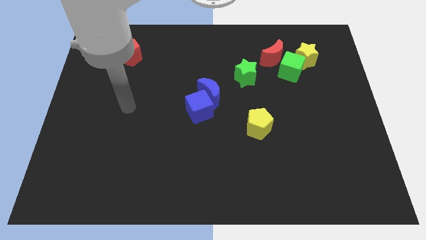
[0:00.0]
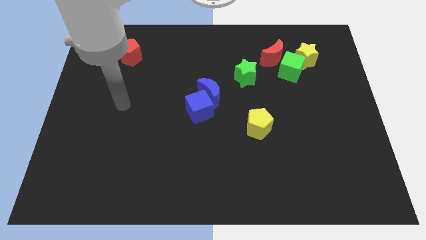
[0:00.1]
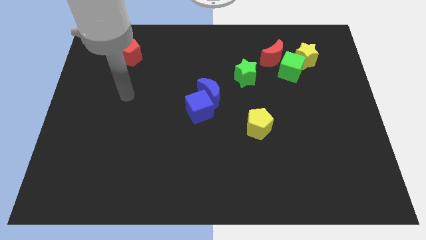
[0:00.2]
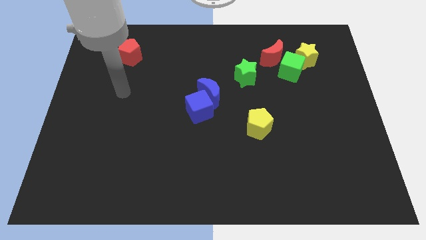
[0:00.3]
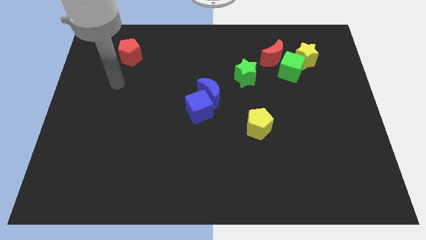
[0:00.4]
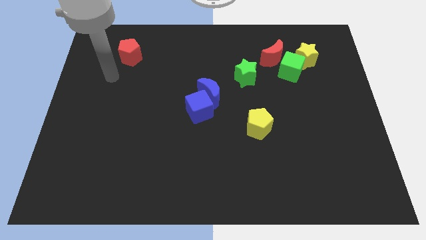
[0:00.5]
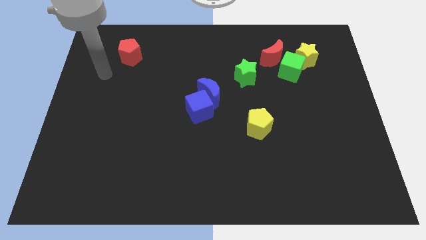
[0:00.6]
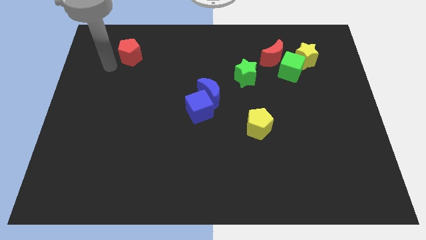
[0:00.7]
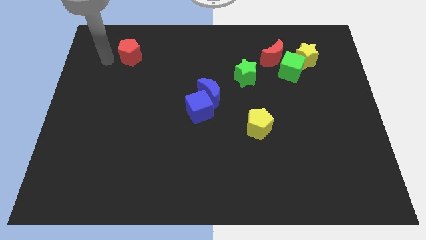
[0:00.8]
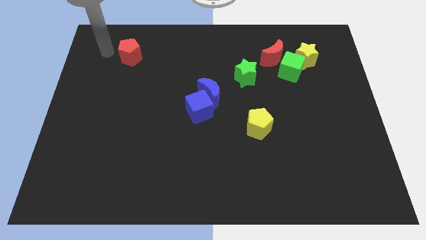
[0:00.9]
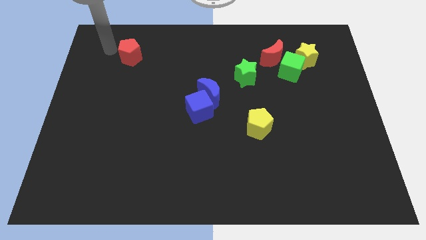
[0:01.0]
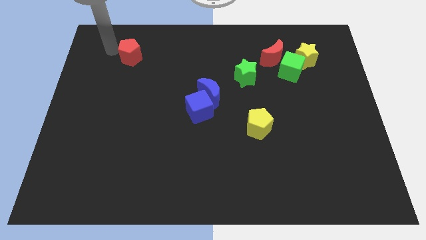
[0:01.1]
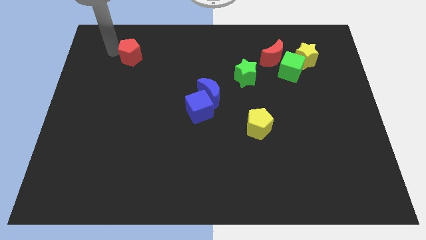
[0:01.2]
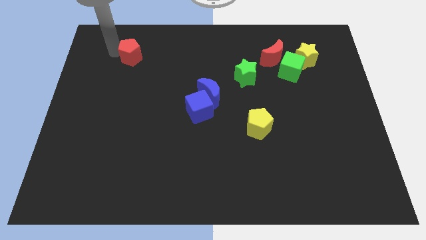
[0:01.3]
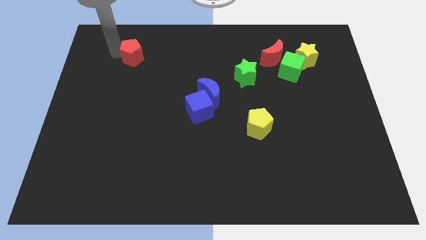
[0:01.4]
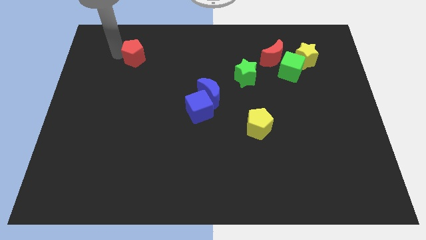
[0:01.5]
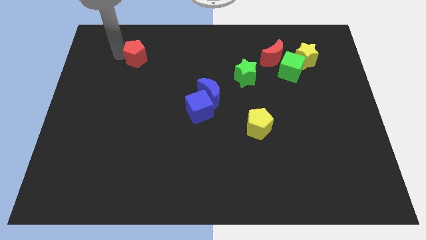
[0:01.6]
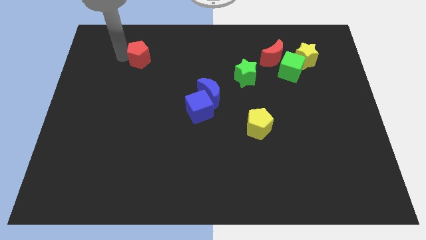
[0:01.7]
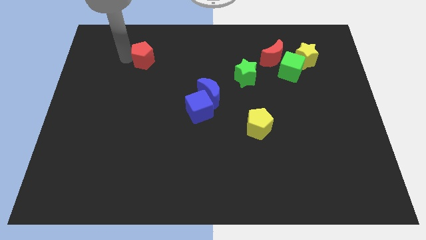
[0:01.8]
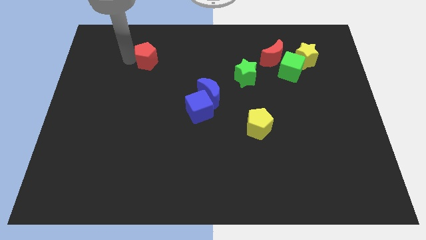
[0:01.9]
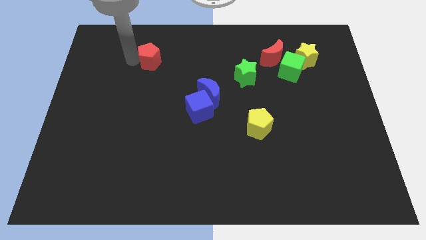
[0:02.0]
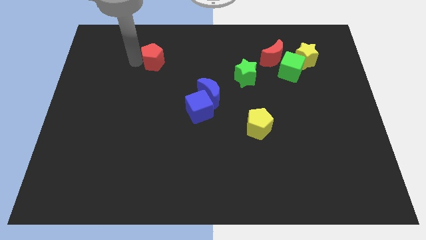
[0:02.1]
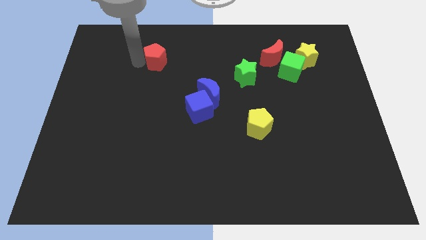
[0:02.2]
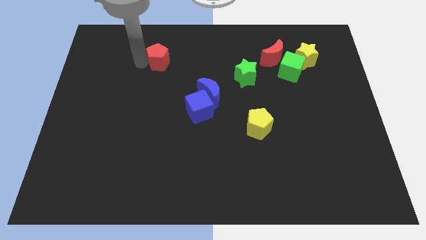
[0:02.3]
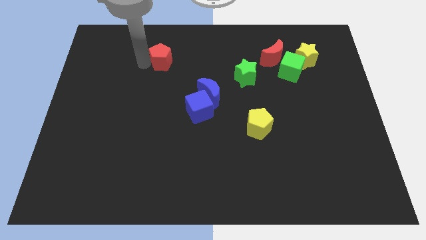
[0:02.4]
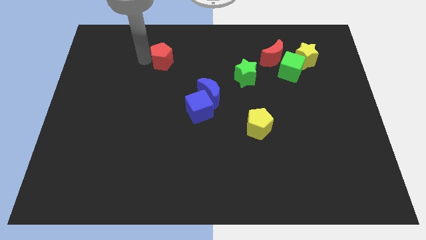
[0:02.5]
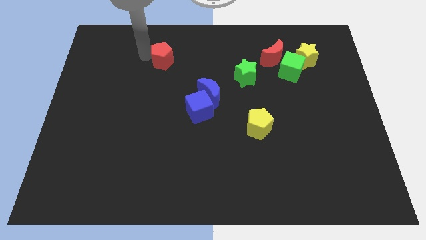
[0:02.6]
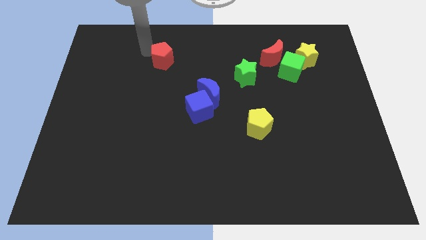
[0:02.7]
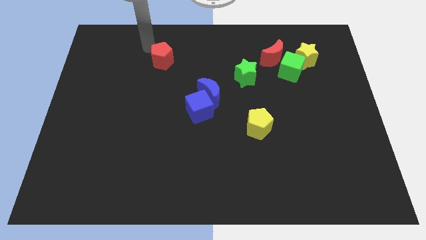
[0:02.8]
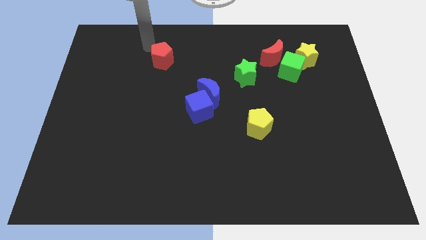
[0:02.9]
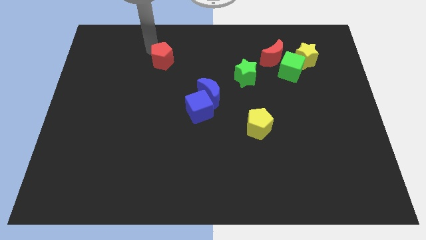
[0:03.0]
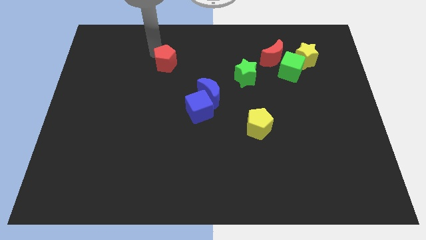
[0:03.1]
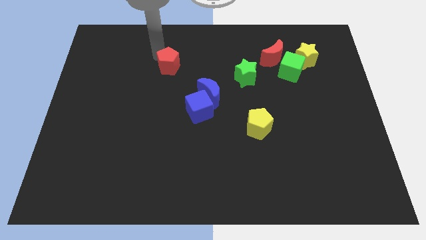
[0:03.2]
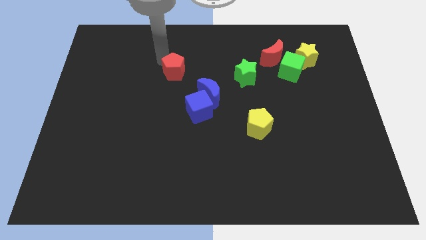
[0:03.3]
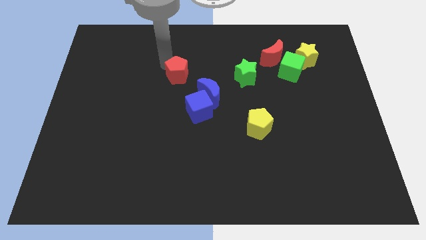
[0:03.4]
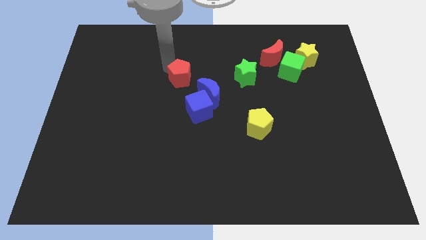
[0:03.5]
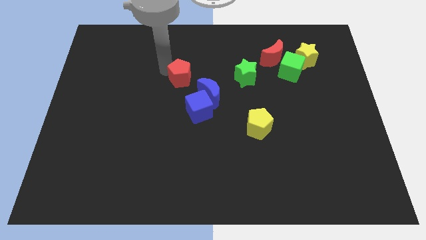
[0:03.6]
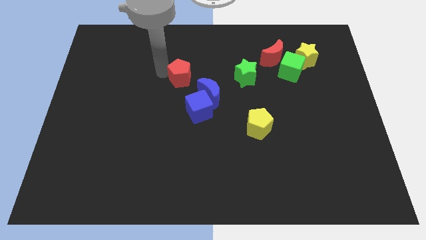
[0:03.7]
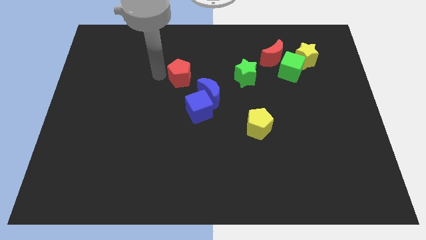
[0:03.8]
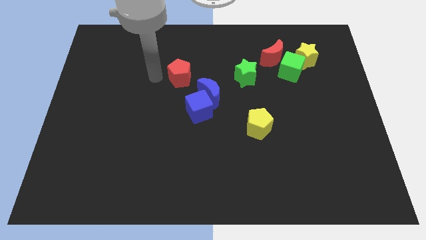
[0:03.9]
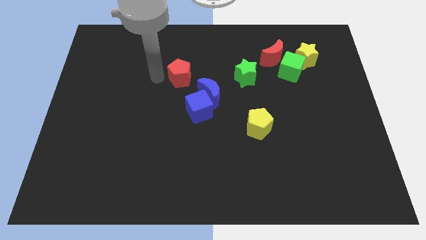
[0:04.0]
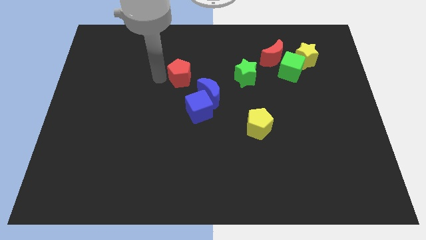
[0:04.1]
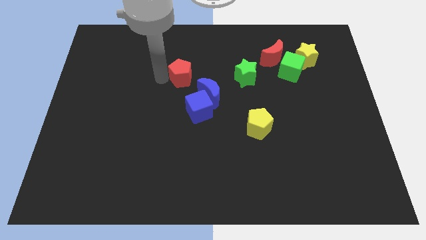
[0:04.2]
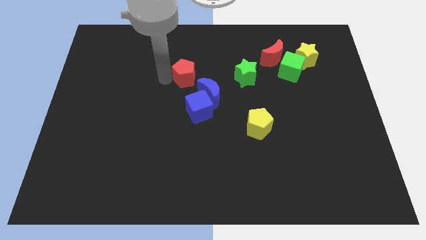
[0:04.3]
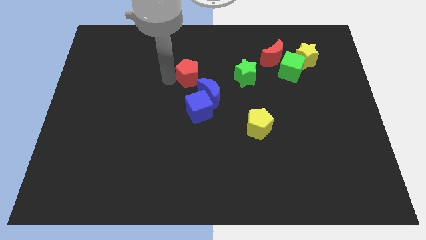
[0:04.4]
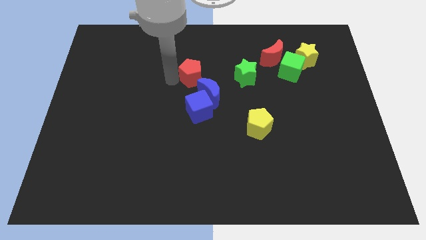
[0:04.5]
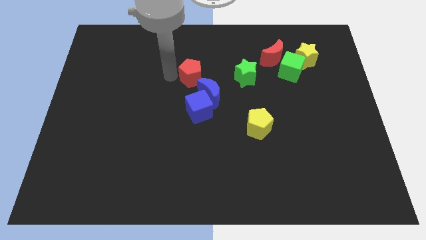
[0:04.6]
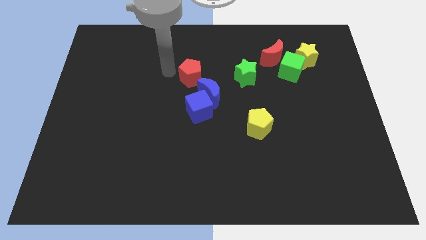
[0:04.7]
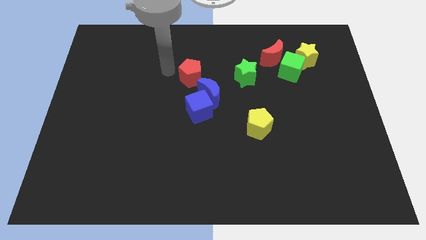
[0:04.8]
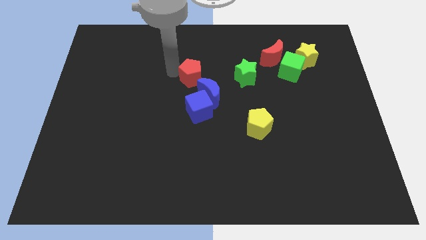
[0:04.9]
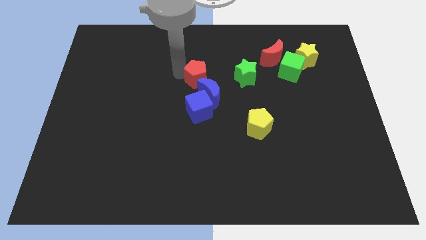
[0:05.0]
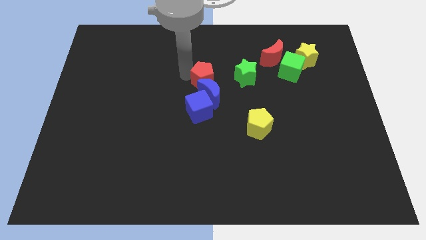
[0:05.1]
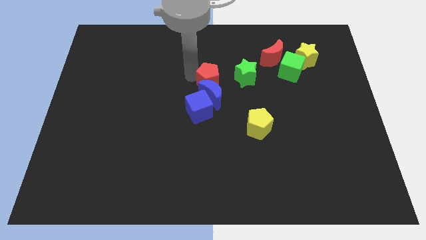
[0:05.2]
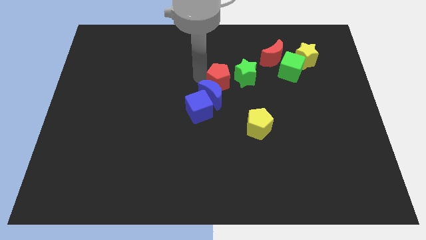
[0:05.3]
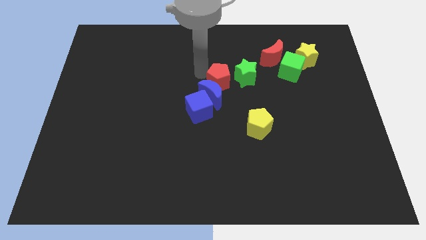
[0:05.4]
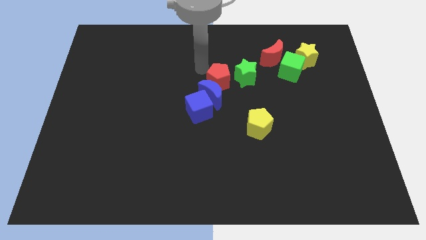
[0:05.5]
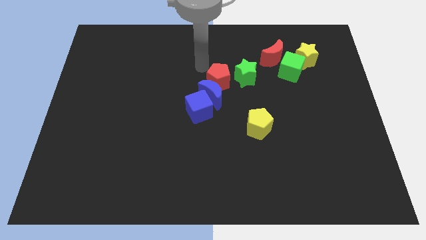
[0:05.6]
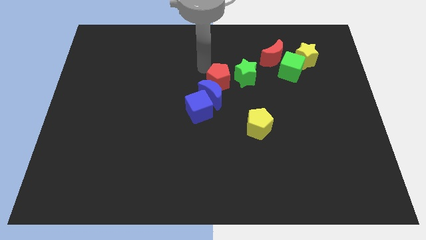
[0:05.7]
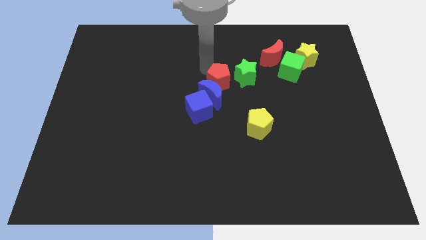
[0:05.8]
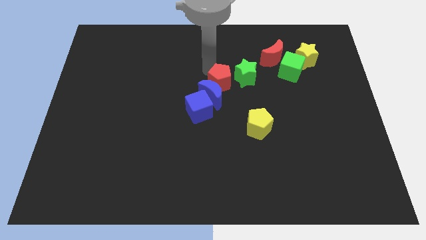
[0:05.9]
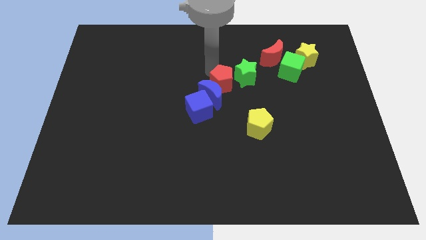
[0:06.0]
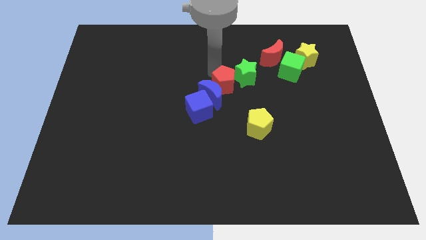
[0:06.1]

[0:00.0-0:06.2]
move the red pentagon just right of the blue moon

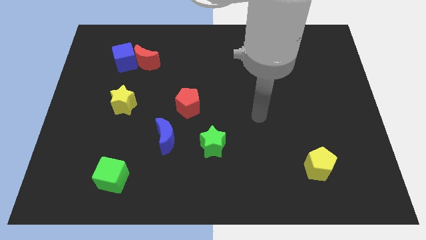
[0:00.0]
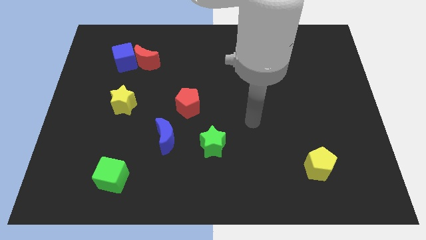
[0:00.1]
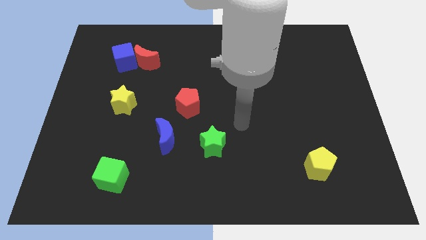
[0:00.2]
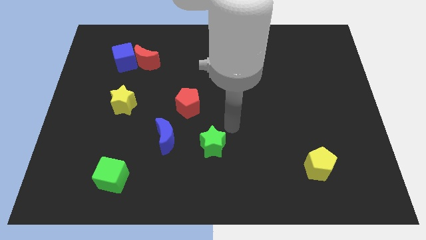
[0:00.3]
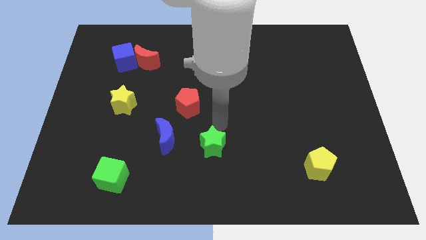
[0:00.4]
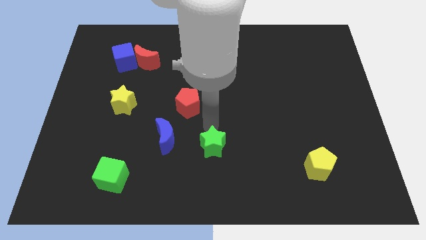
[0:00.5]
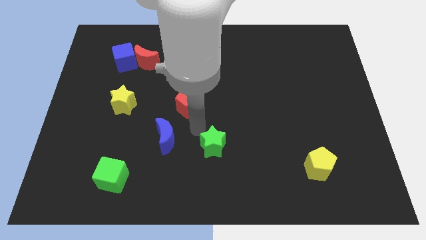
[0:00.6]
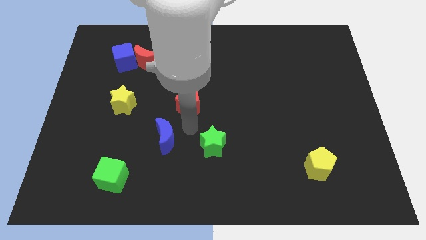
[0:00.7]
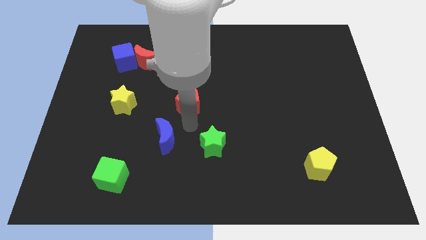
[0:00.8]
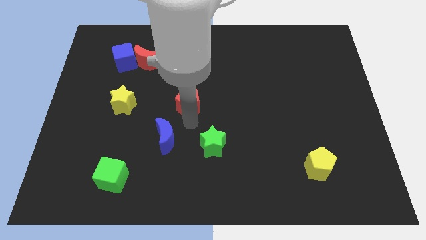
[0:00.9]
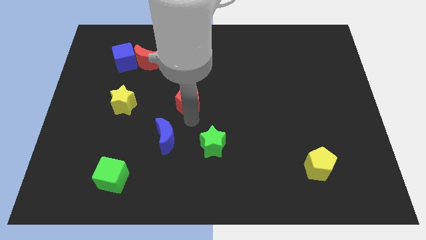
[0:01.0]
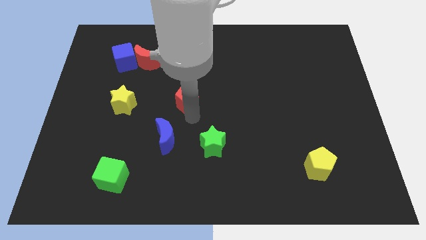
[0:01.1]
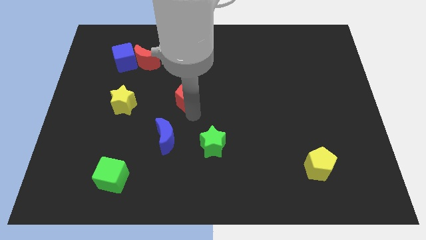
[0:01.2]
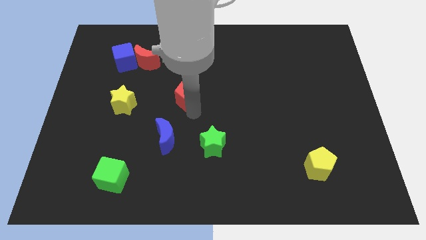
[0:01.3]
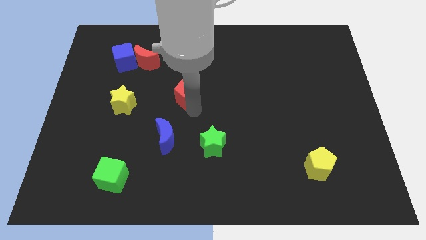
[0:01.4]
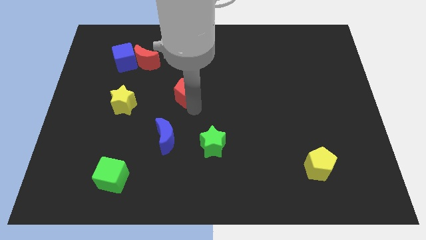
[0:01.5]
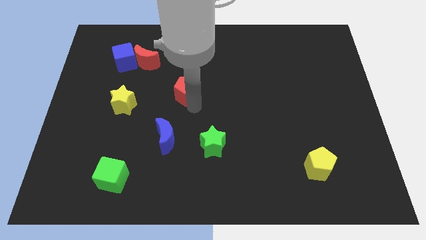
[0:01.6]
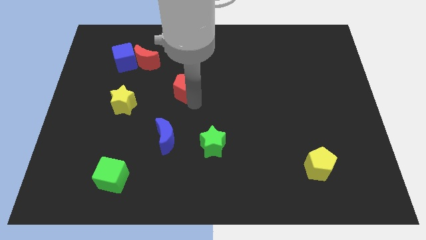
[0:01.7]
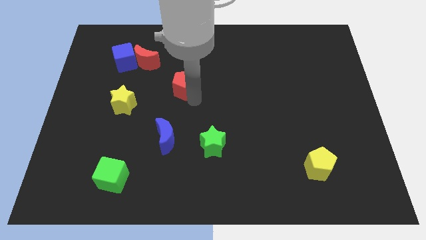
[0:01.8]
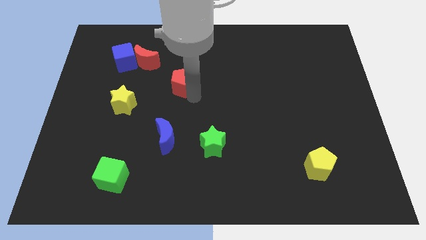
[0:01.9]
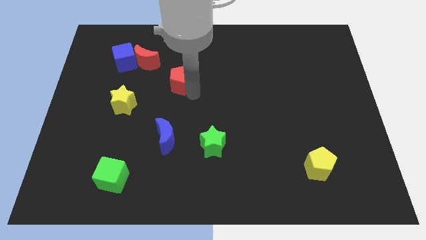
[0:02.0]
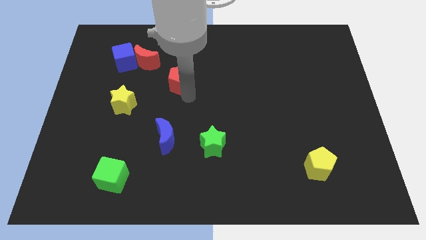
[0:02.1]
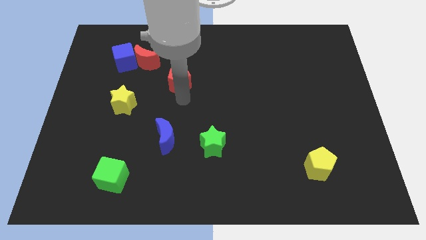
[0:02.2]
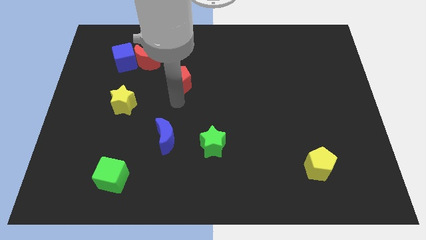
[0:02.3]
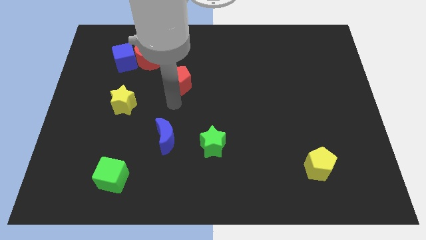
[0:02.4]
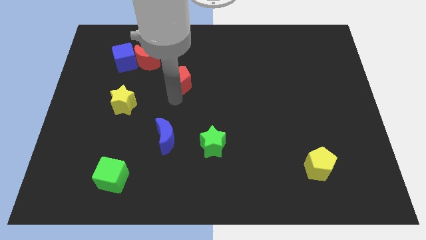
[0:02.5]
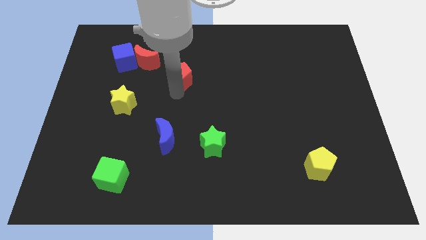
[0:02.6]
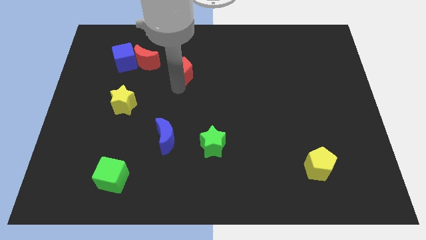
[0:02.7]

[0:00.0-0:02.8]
put the red pentagon right of the red moon
